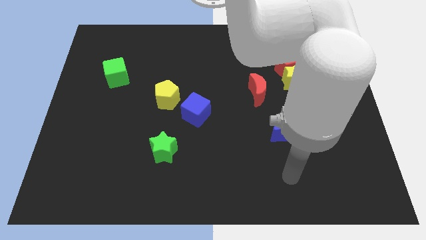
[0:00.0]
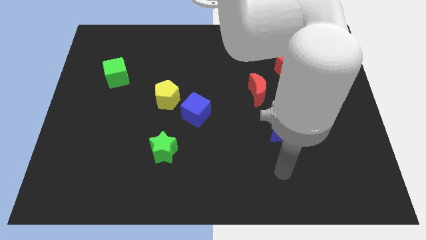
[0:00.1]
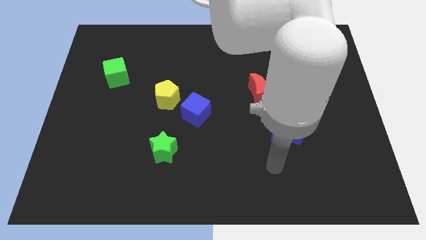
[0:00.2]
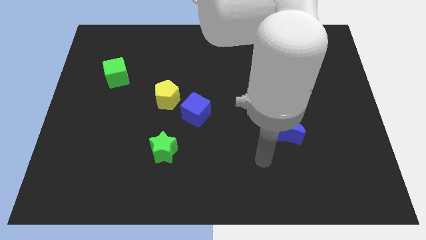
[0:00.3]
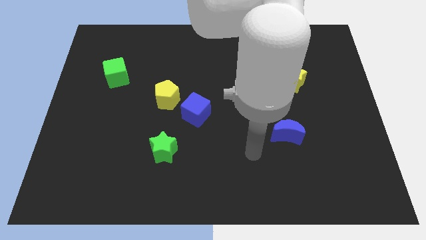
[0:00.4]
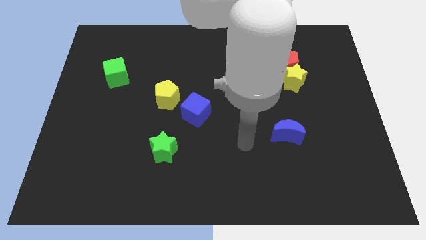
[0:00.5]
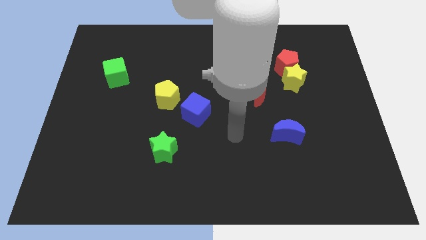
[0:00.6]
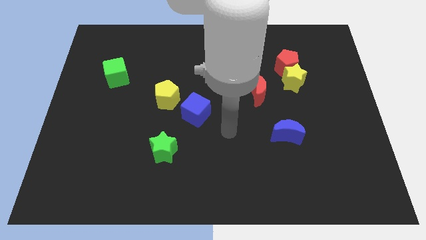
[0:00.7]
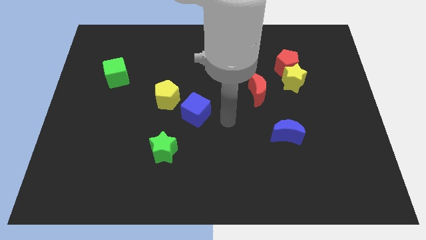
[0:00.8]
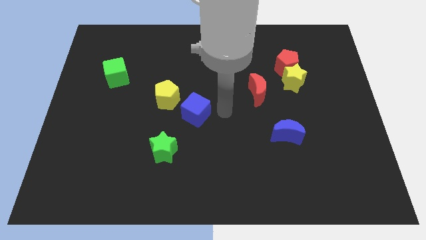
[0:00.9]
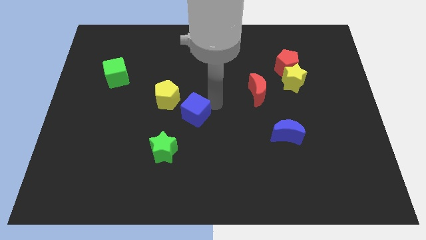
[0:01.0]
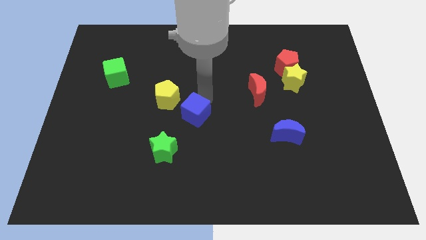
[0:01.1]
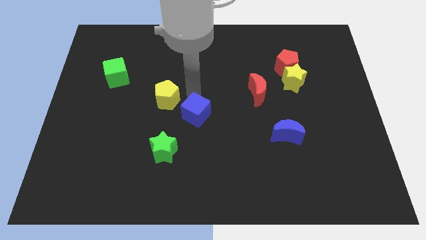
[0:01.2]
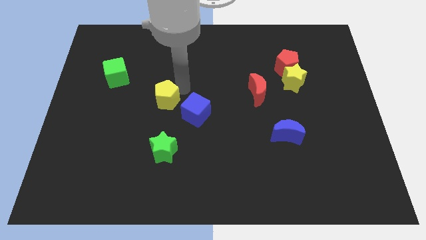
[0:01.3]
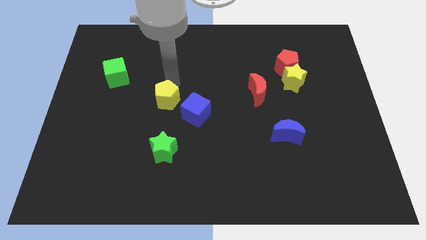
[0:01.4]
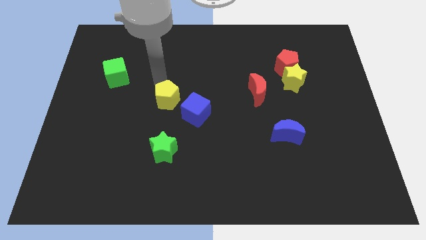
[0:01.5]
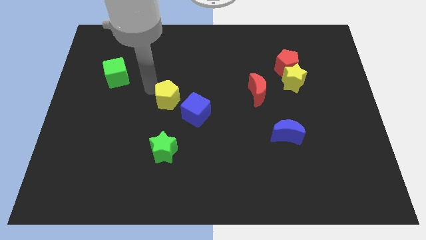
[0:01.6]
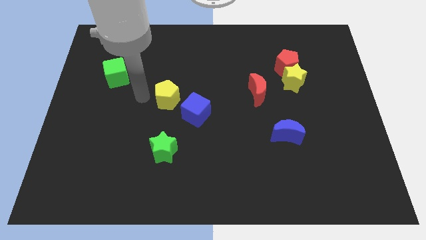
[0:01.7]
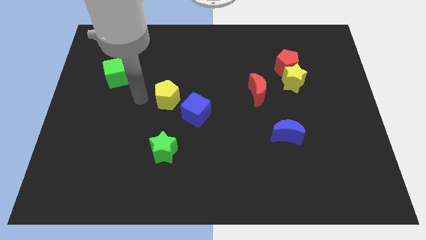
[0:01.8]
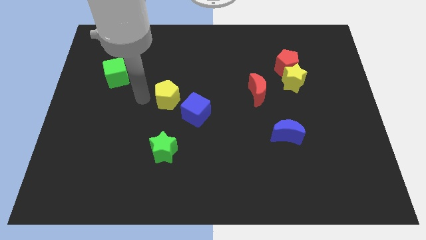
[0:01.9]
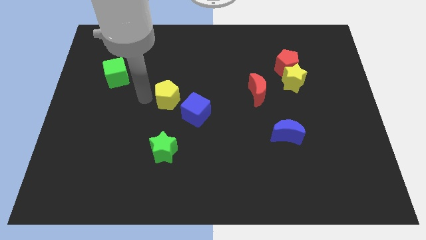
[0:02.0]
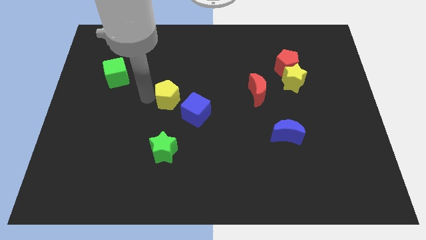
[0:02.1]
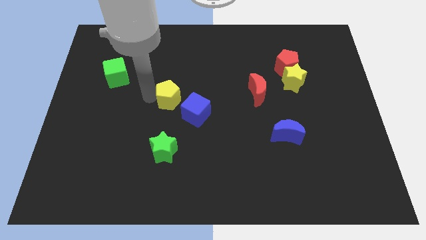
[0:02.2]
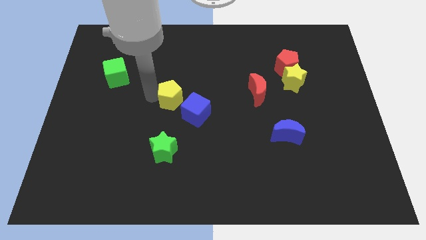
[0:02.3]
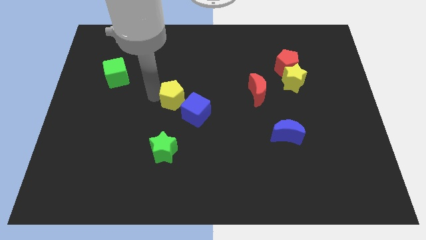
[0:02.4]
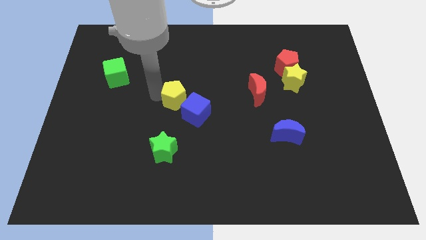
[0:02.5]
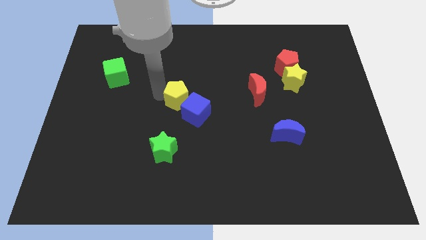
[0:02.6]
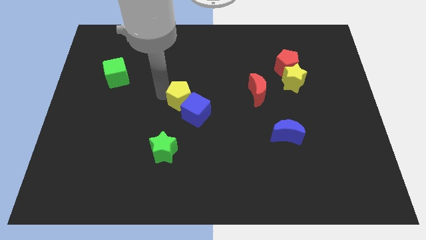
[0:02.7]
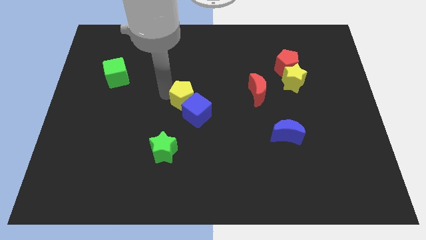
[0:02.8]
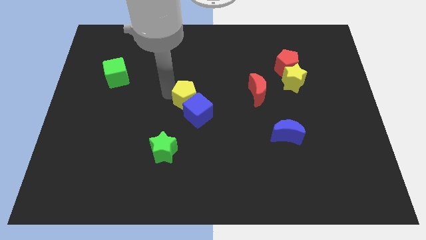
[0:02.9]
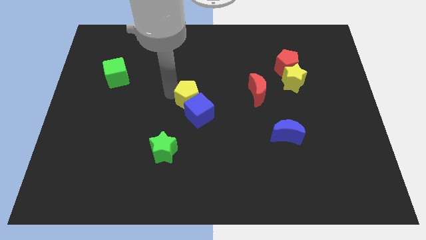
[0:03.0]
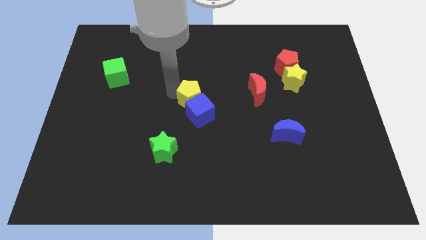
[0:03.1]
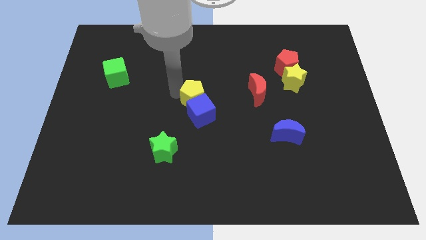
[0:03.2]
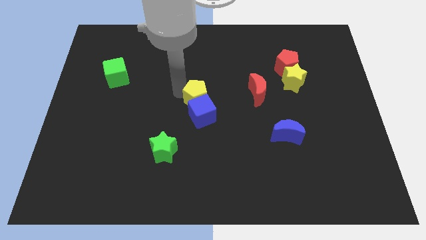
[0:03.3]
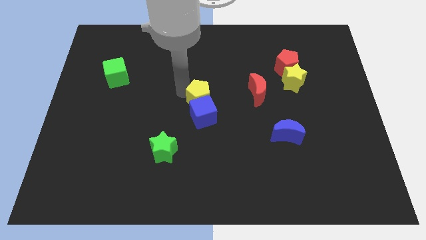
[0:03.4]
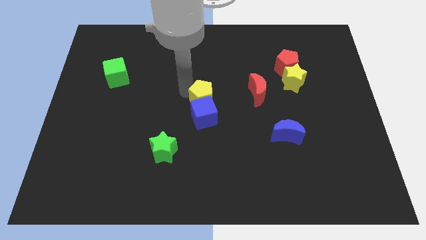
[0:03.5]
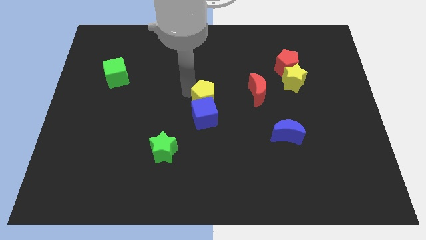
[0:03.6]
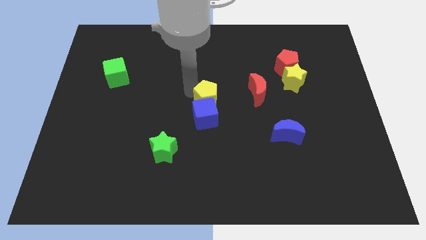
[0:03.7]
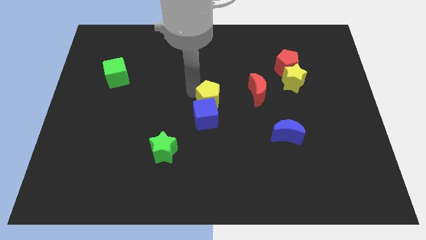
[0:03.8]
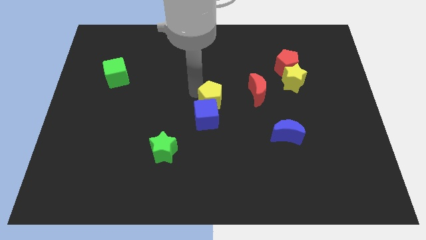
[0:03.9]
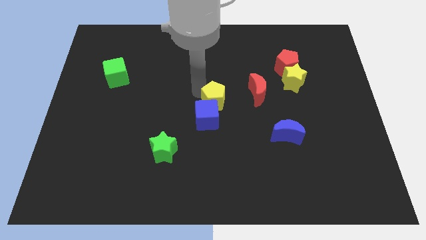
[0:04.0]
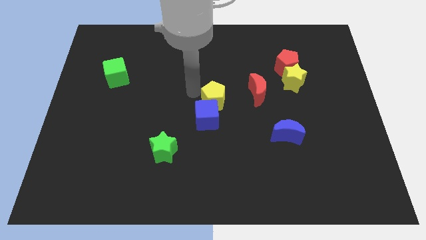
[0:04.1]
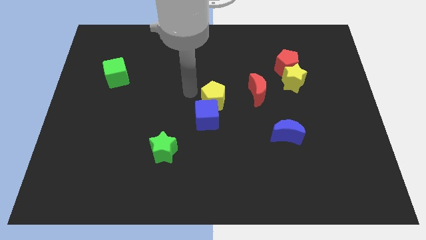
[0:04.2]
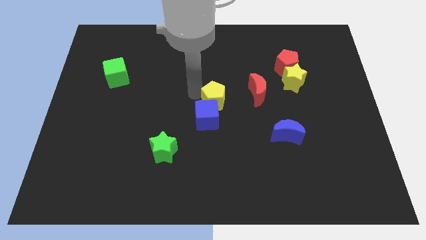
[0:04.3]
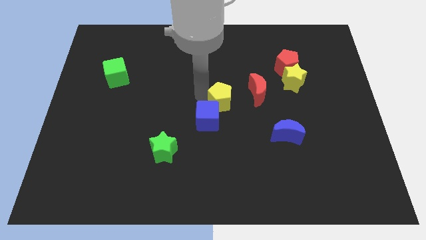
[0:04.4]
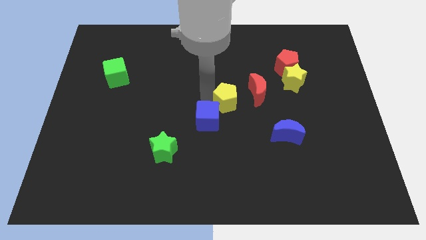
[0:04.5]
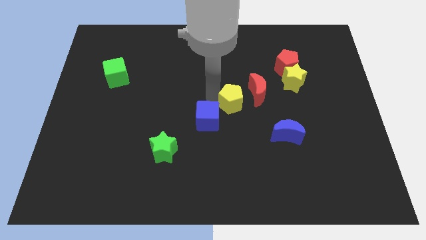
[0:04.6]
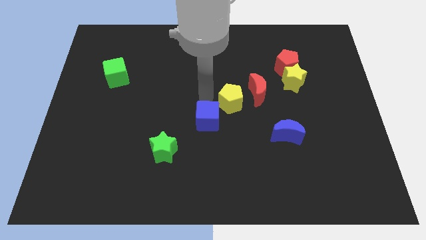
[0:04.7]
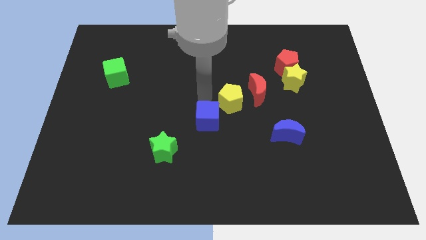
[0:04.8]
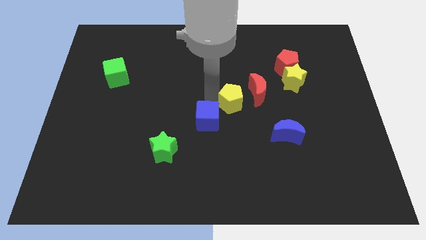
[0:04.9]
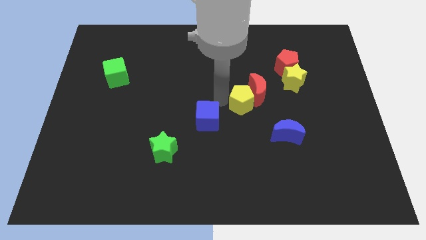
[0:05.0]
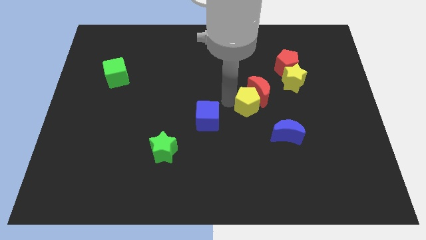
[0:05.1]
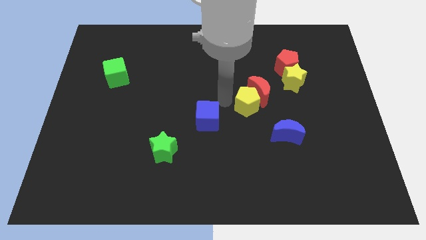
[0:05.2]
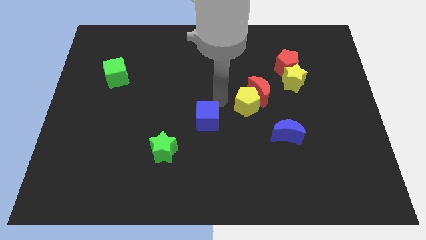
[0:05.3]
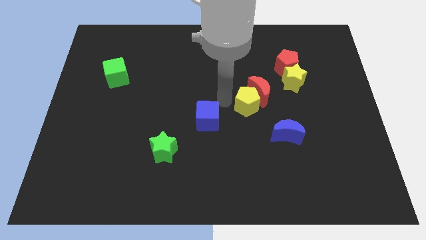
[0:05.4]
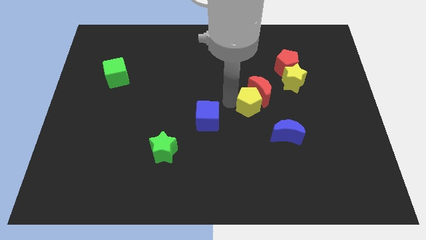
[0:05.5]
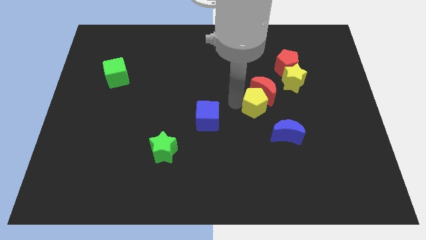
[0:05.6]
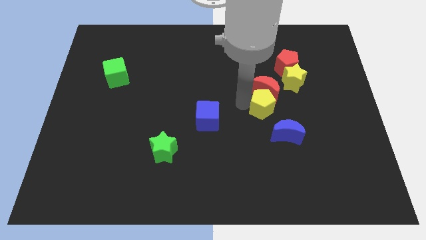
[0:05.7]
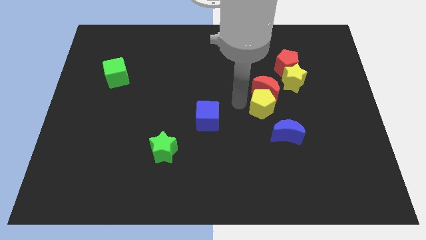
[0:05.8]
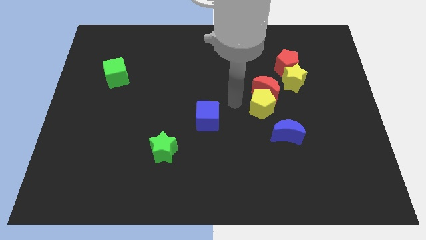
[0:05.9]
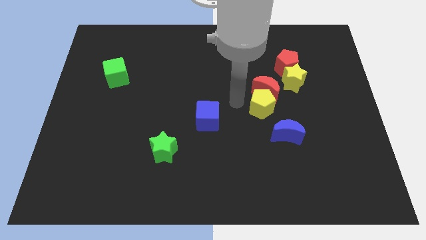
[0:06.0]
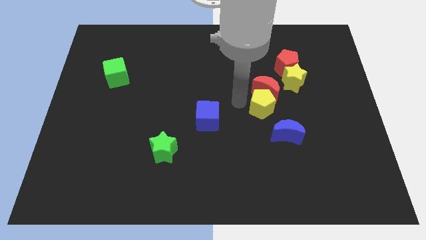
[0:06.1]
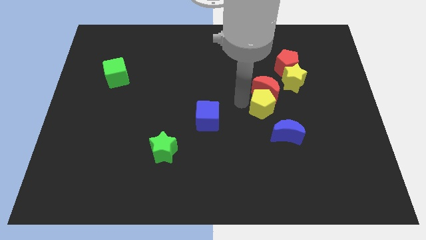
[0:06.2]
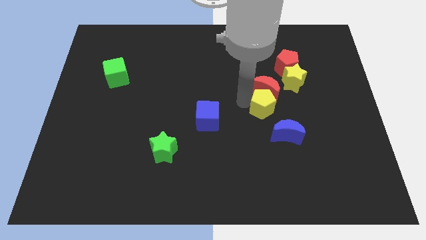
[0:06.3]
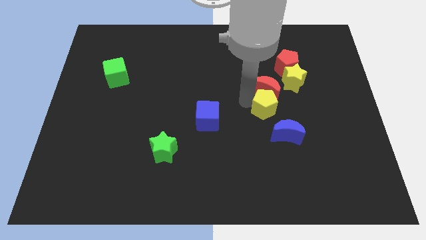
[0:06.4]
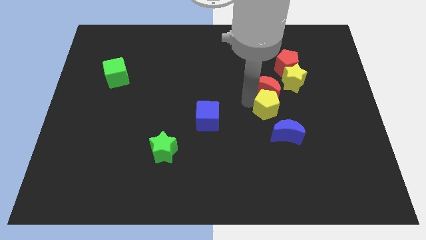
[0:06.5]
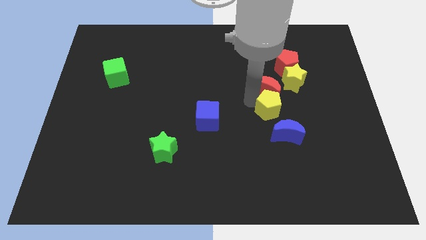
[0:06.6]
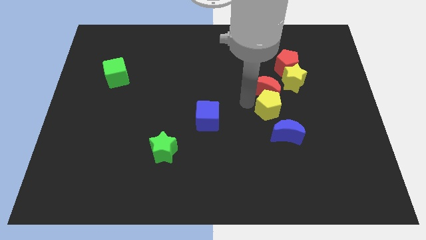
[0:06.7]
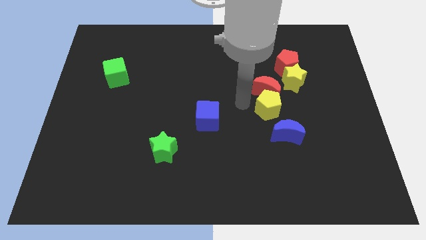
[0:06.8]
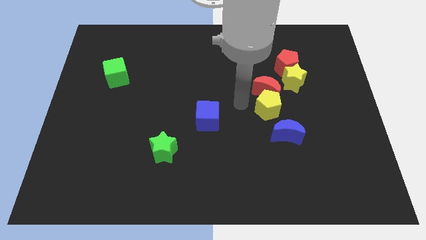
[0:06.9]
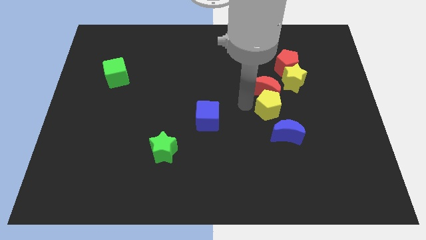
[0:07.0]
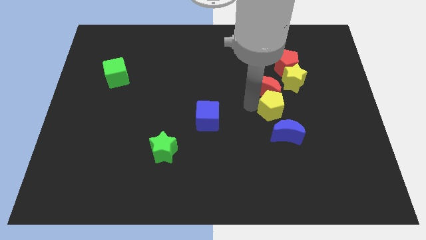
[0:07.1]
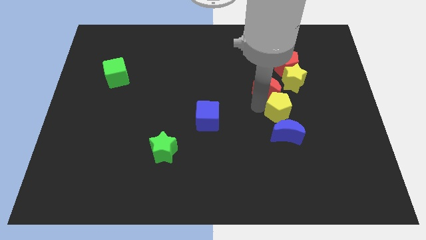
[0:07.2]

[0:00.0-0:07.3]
push the yellow pentagon below the yellow star
